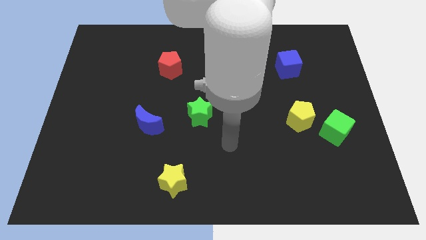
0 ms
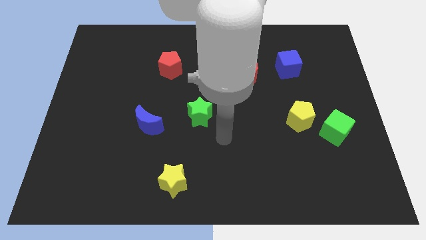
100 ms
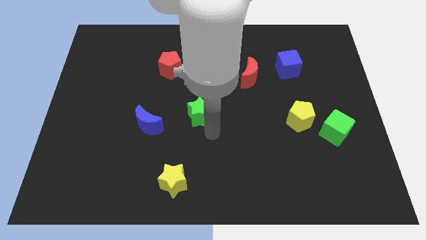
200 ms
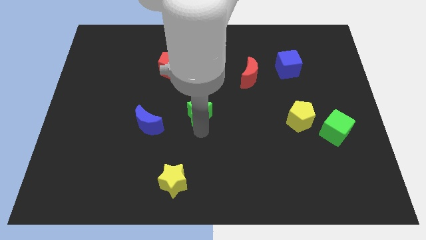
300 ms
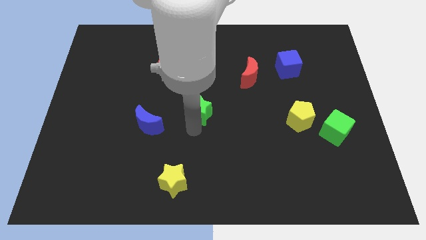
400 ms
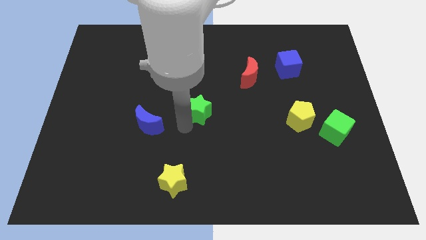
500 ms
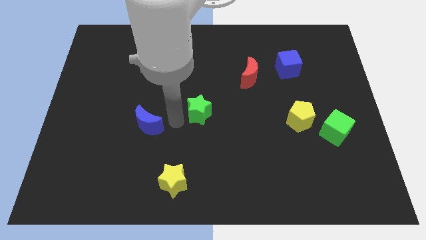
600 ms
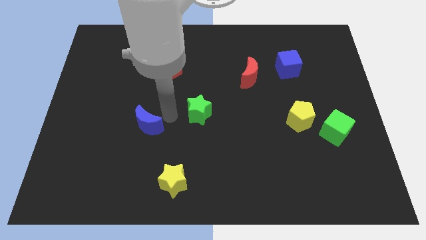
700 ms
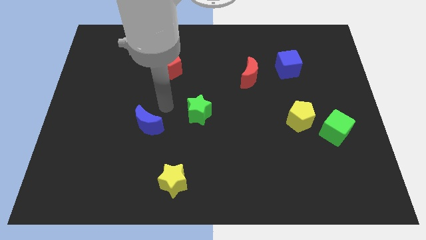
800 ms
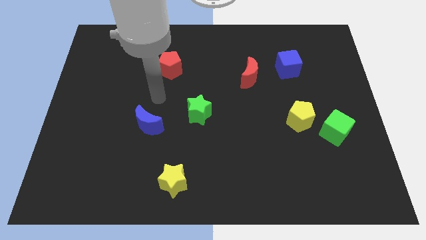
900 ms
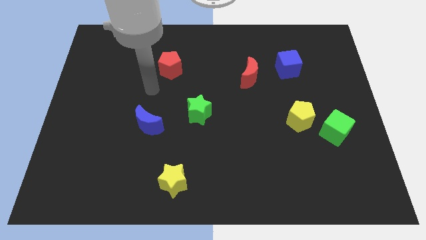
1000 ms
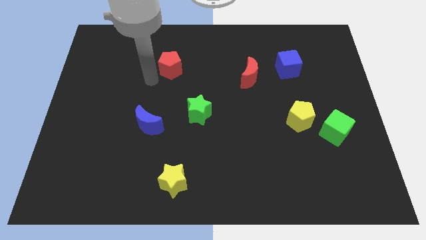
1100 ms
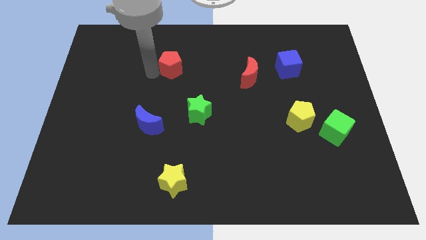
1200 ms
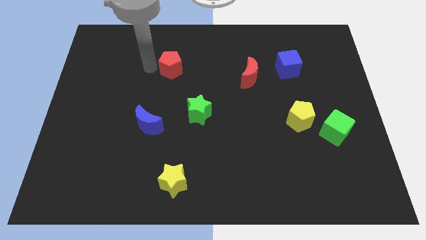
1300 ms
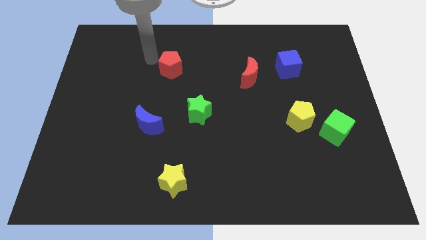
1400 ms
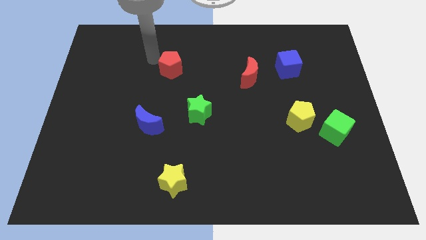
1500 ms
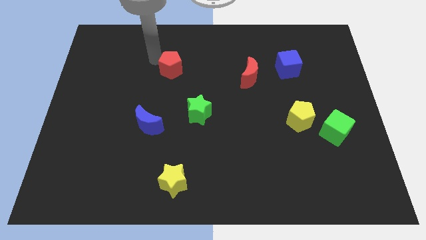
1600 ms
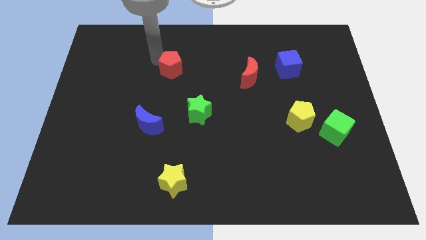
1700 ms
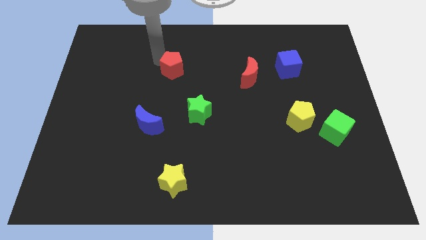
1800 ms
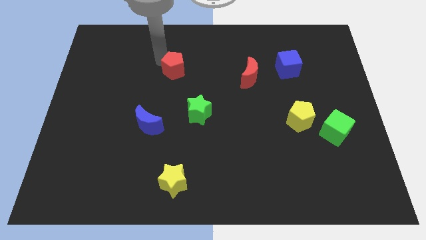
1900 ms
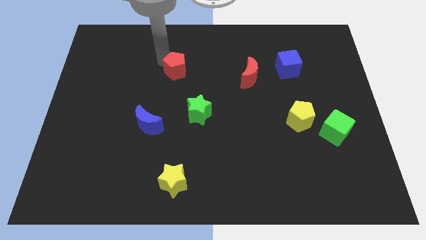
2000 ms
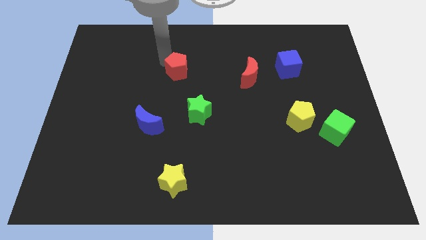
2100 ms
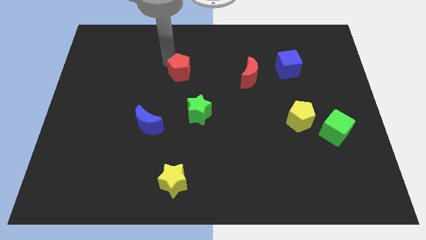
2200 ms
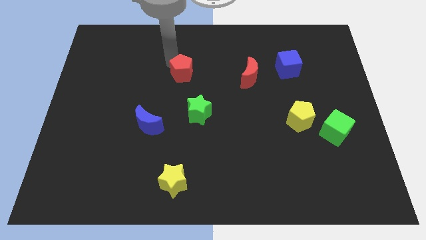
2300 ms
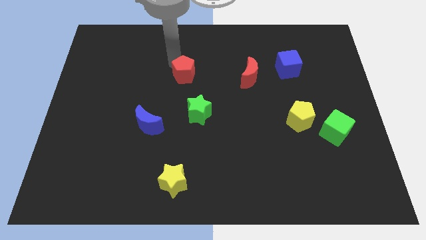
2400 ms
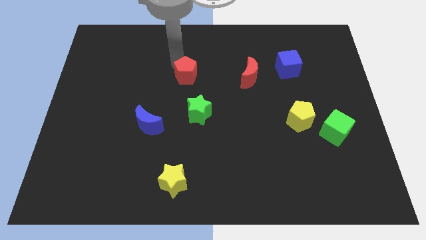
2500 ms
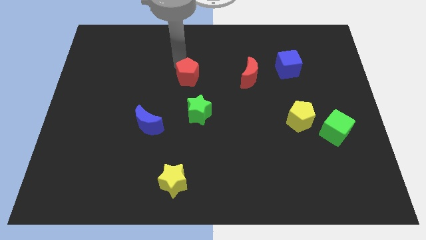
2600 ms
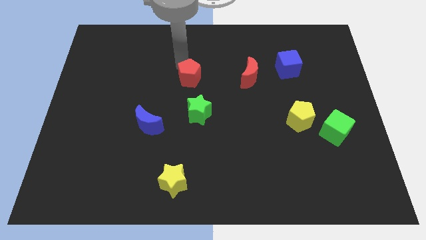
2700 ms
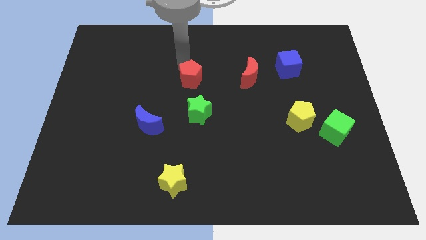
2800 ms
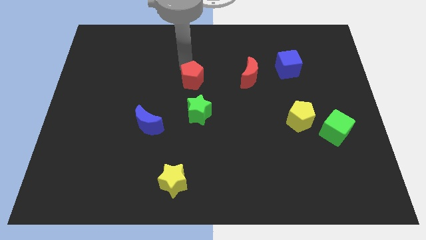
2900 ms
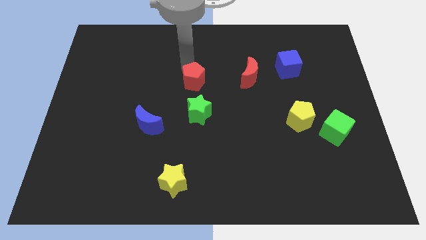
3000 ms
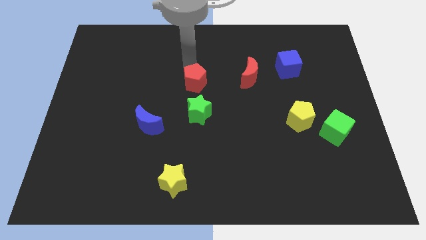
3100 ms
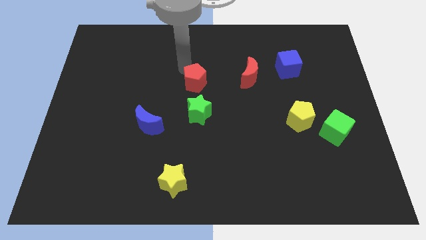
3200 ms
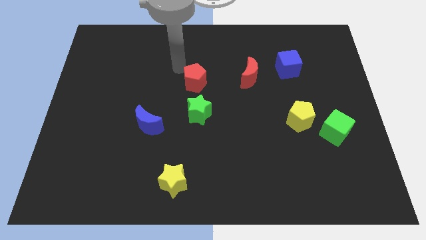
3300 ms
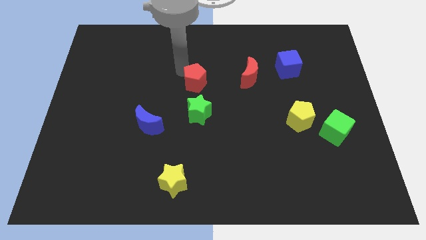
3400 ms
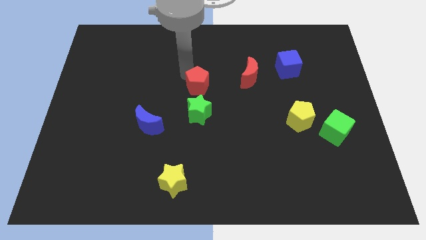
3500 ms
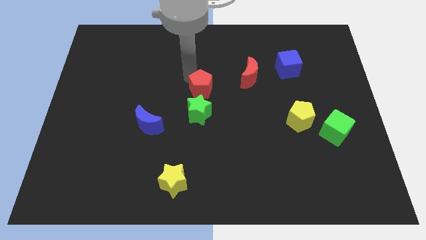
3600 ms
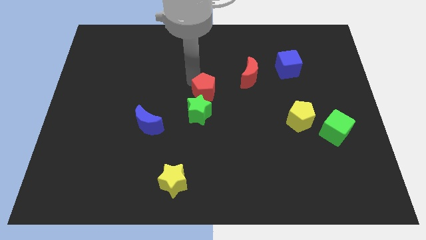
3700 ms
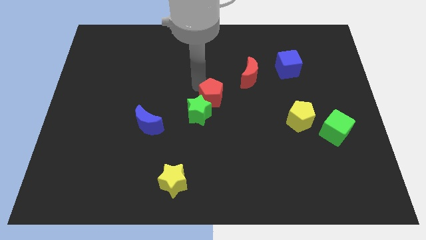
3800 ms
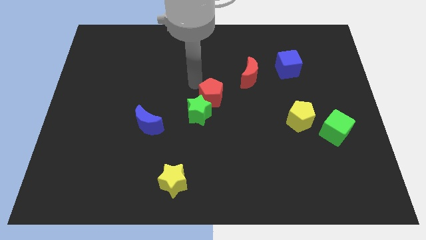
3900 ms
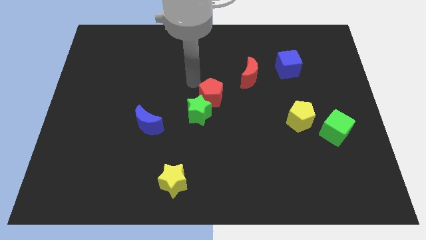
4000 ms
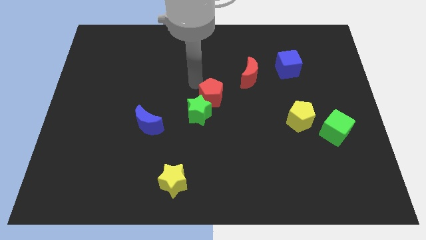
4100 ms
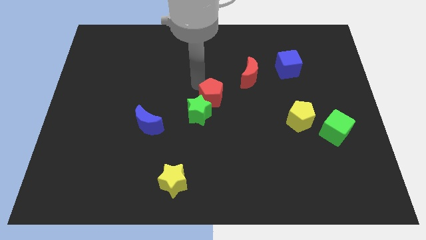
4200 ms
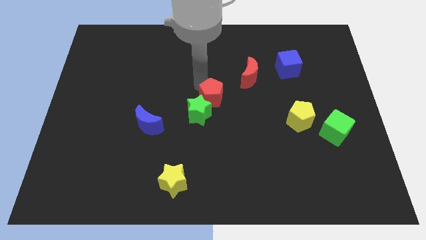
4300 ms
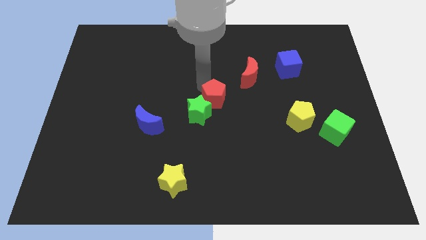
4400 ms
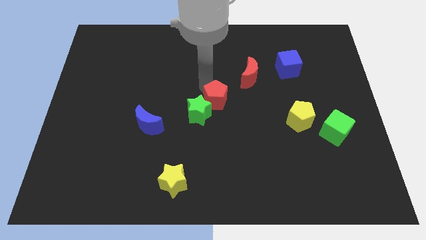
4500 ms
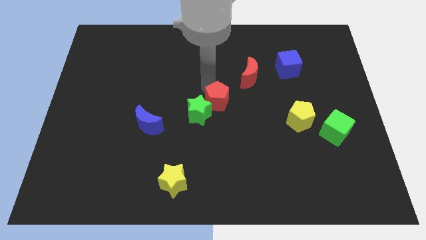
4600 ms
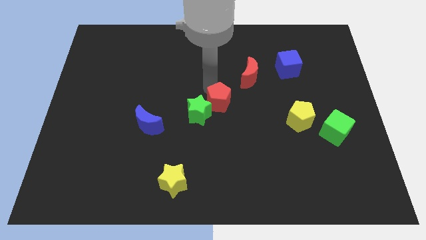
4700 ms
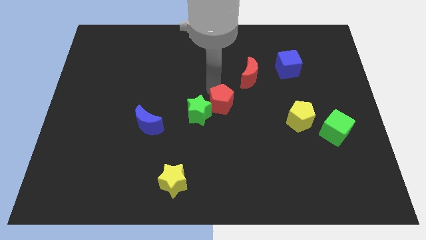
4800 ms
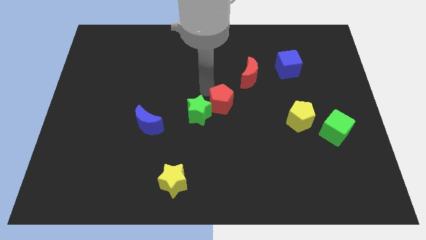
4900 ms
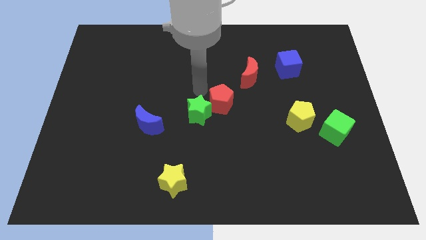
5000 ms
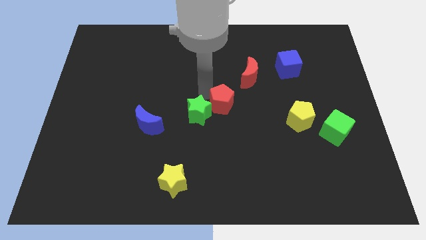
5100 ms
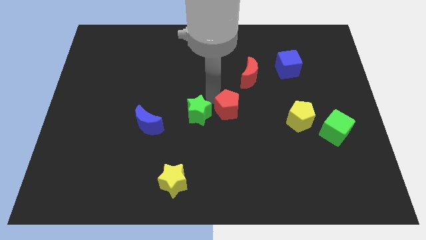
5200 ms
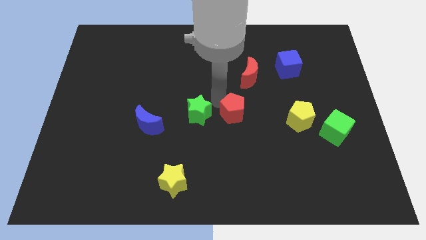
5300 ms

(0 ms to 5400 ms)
put the red pentagon left of the yellow pentagon
